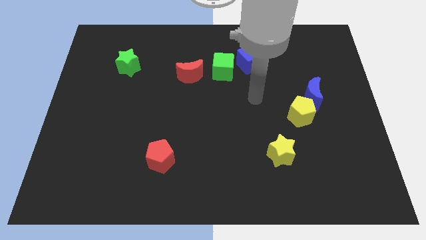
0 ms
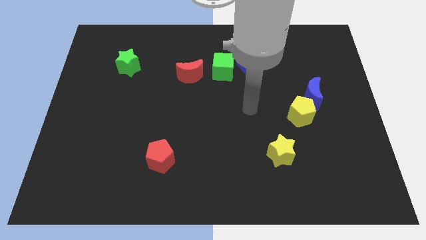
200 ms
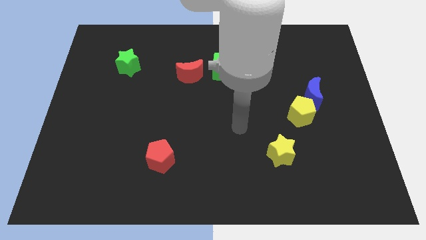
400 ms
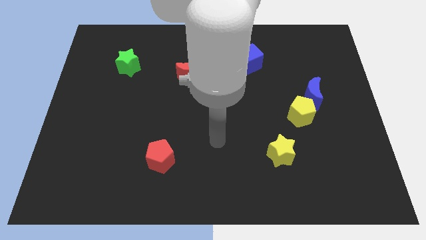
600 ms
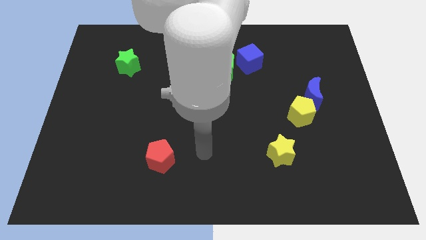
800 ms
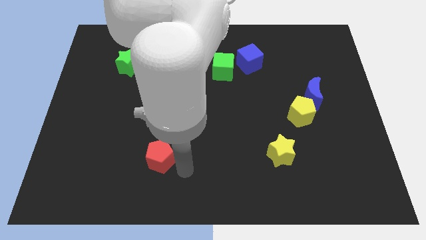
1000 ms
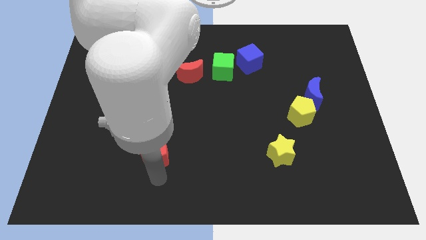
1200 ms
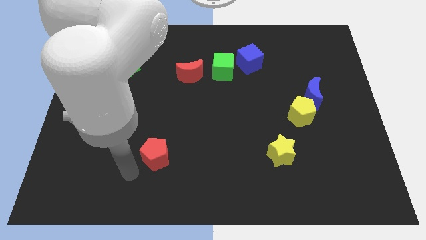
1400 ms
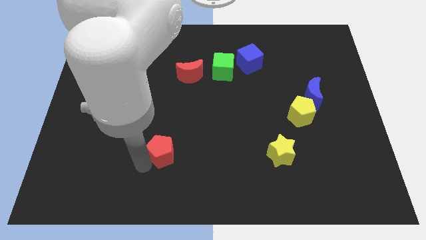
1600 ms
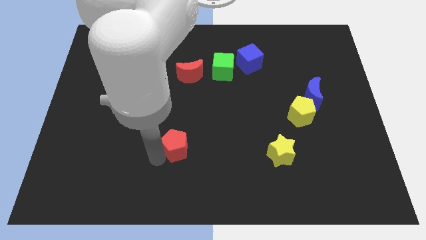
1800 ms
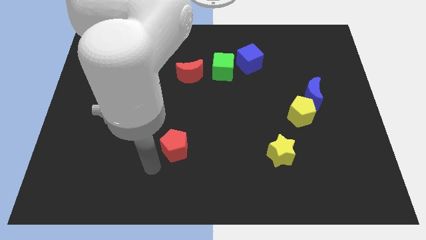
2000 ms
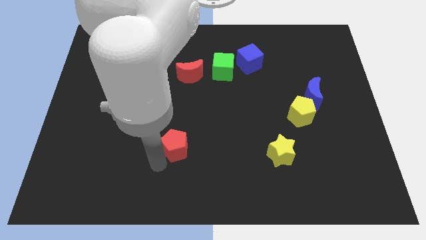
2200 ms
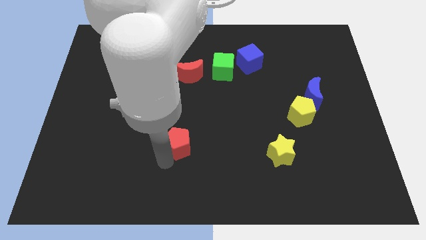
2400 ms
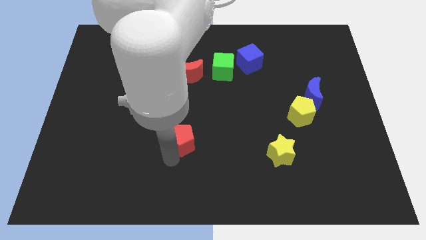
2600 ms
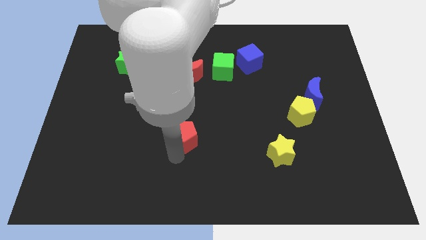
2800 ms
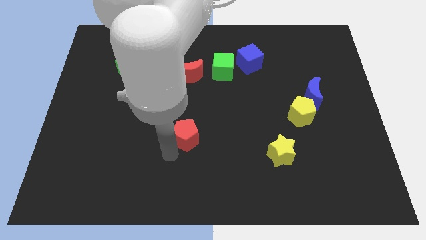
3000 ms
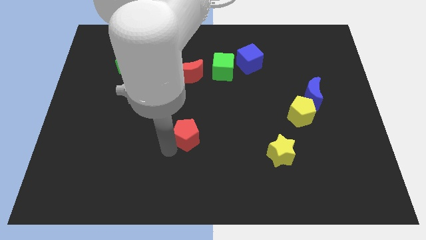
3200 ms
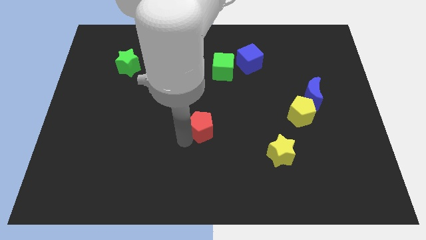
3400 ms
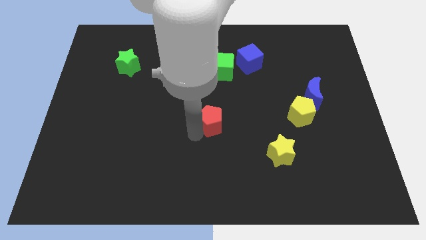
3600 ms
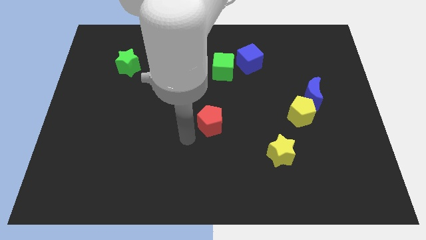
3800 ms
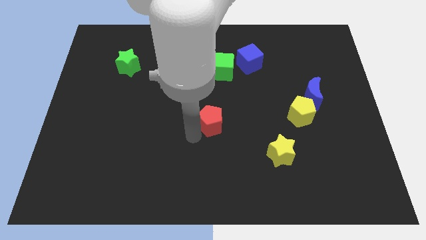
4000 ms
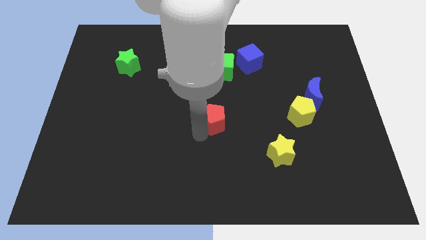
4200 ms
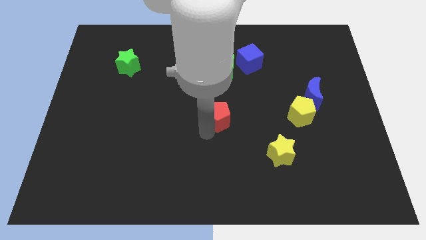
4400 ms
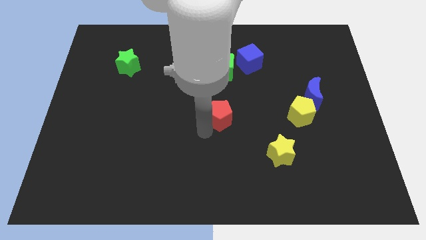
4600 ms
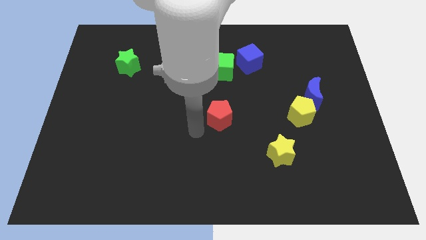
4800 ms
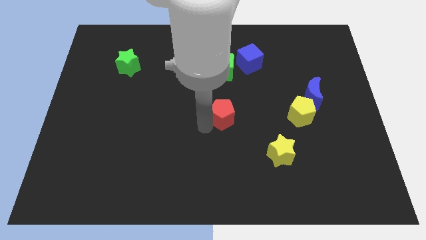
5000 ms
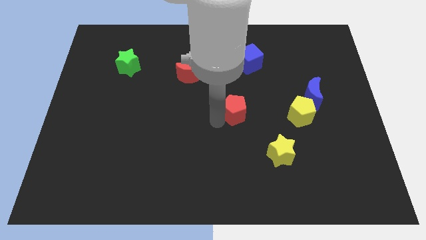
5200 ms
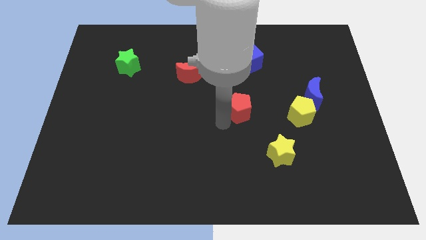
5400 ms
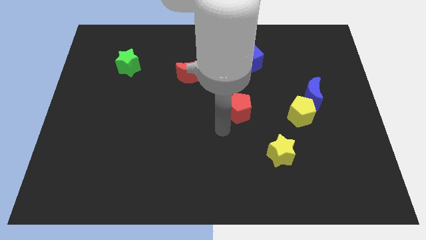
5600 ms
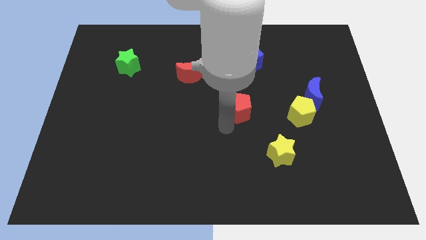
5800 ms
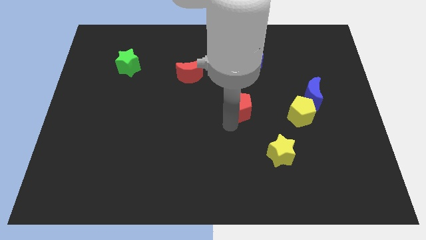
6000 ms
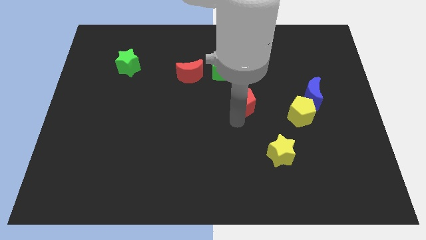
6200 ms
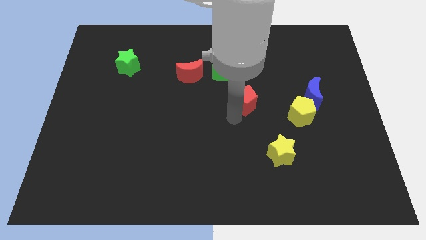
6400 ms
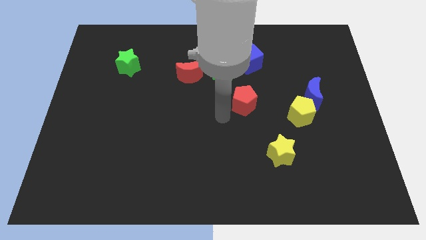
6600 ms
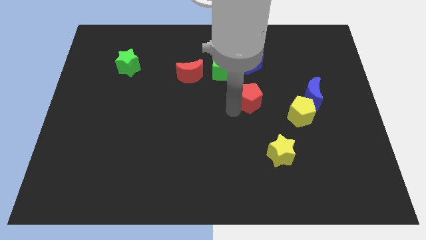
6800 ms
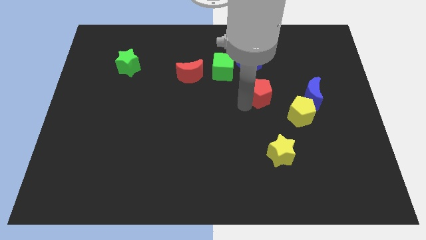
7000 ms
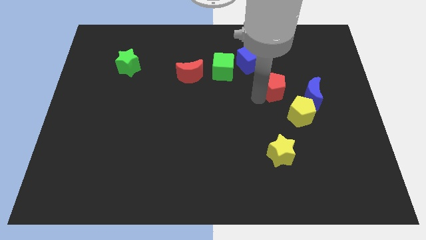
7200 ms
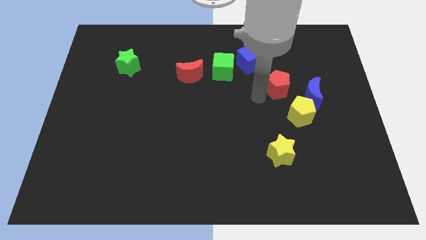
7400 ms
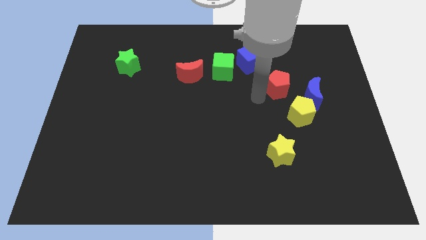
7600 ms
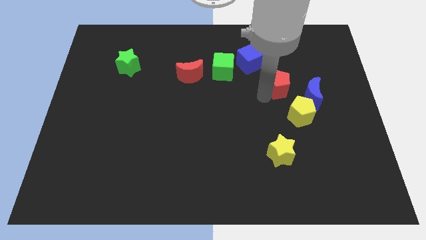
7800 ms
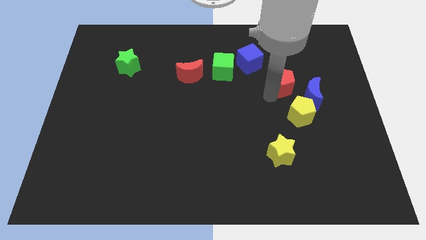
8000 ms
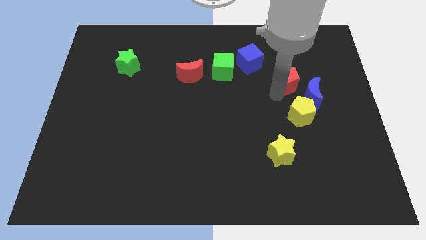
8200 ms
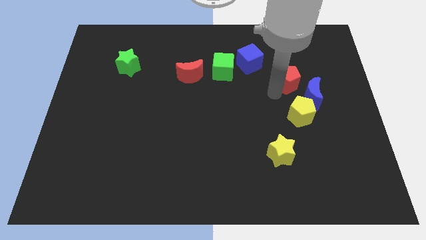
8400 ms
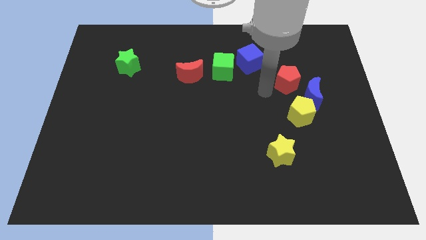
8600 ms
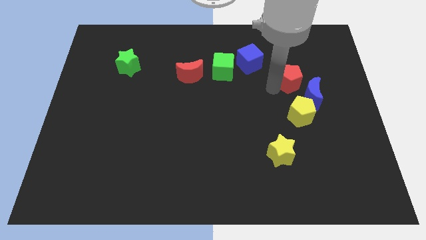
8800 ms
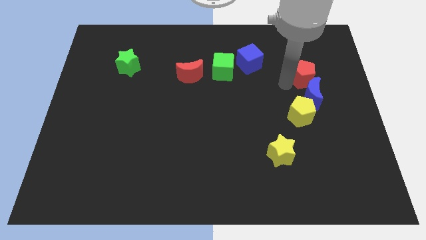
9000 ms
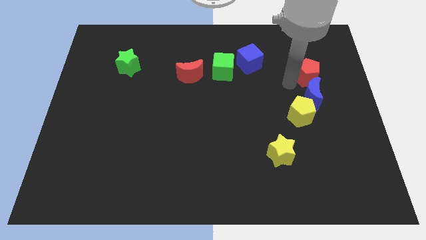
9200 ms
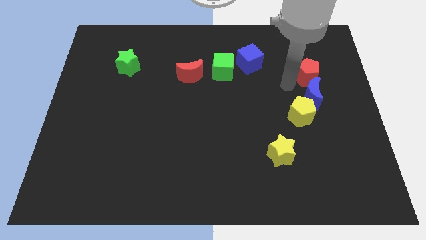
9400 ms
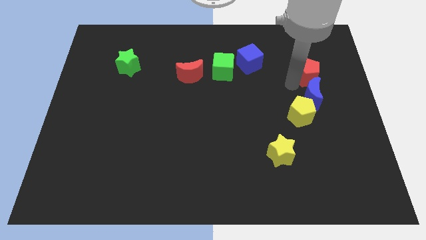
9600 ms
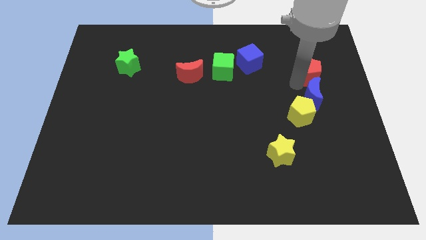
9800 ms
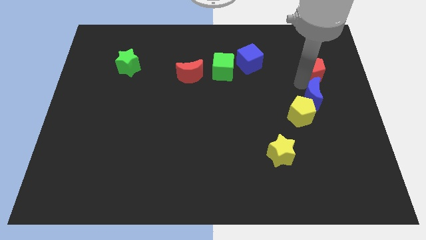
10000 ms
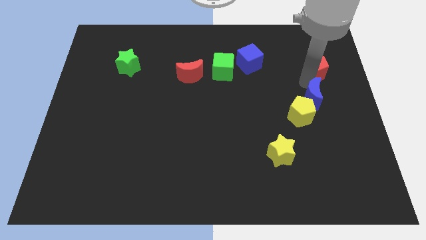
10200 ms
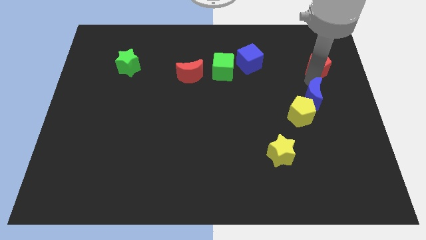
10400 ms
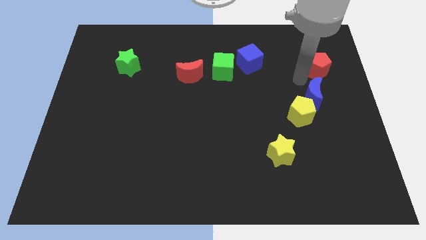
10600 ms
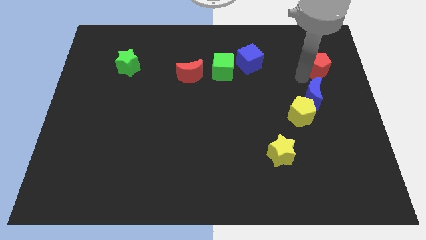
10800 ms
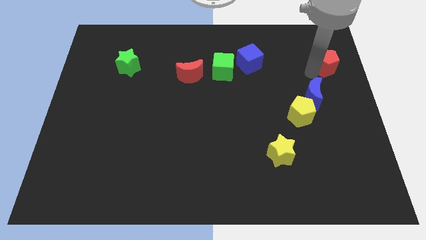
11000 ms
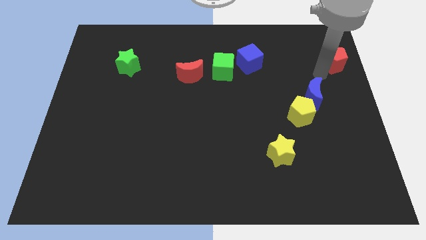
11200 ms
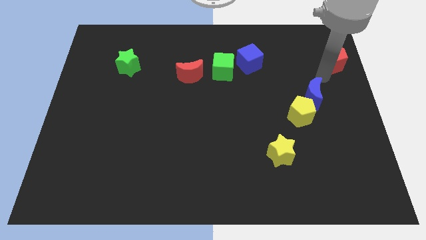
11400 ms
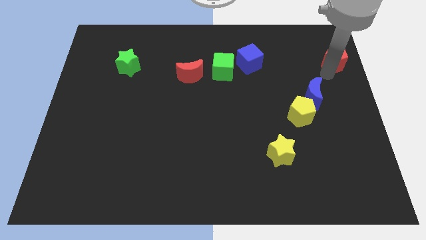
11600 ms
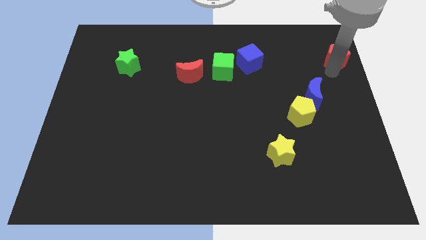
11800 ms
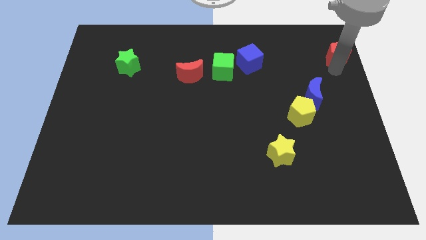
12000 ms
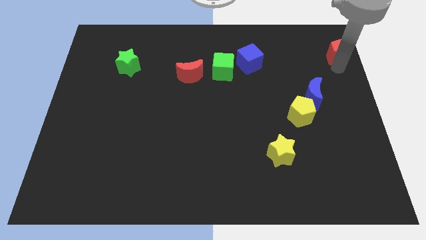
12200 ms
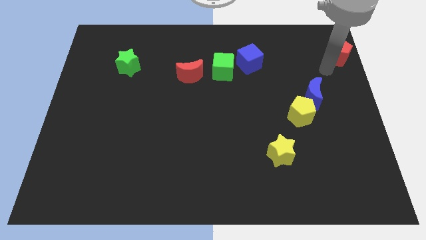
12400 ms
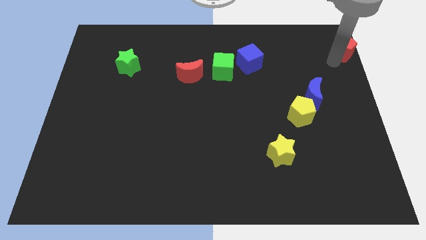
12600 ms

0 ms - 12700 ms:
put the red pentagon to the top right of the board

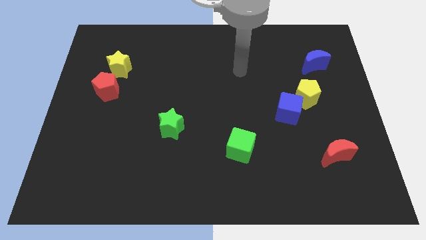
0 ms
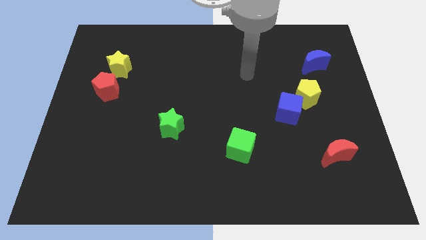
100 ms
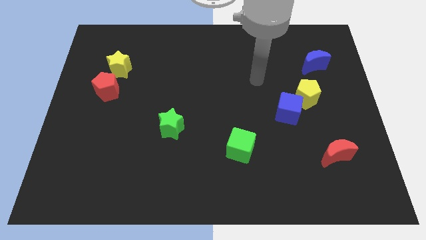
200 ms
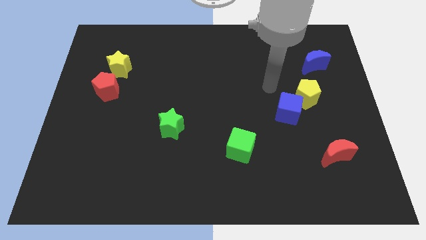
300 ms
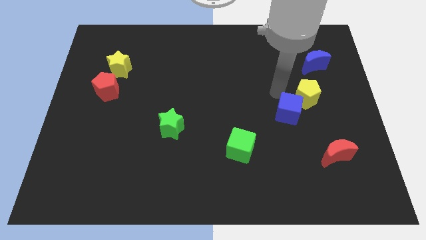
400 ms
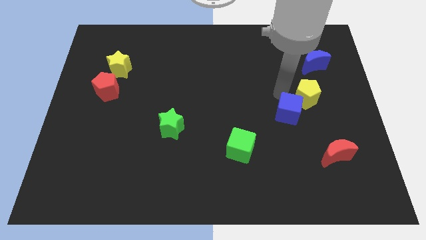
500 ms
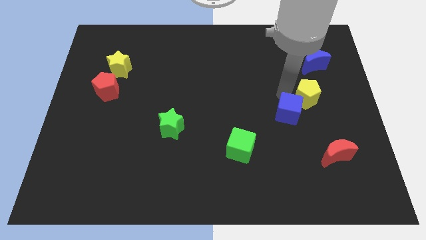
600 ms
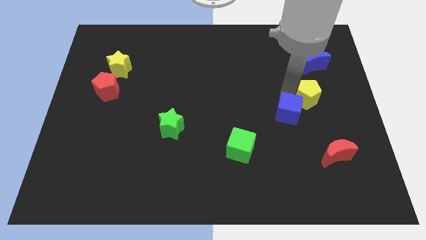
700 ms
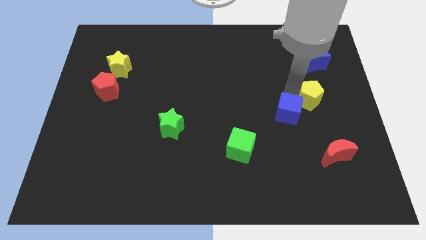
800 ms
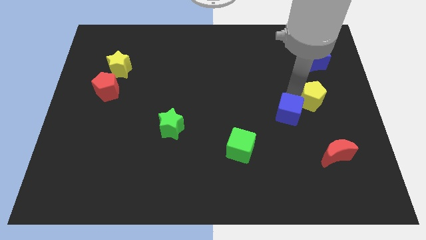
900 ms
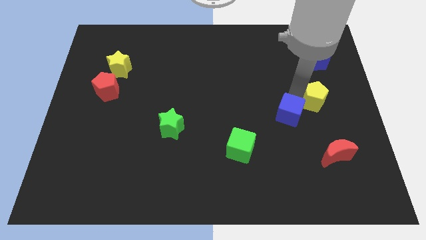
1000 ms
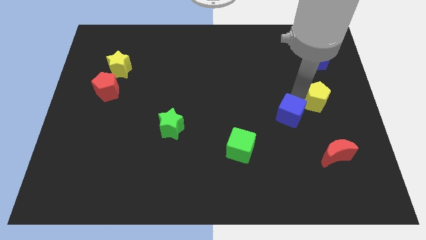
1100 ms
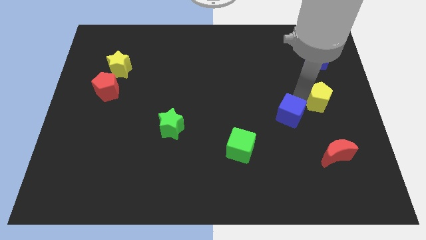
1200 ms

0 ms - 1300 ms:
push the yellow pentagon to the right side
